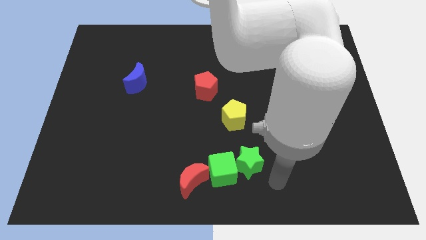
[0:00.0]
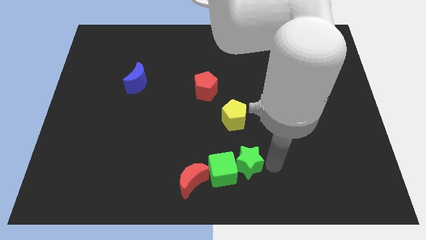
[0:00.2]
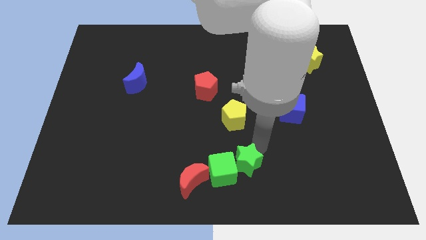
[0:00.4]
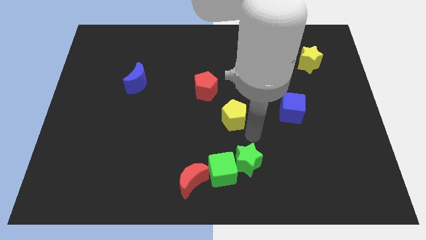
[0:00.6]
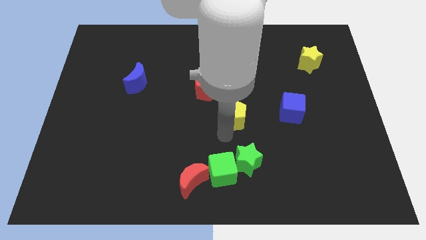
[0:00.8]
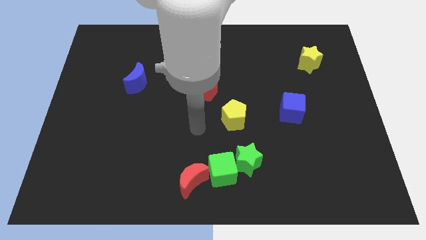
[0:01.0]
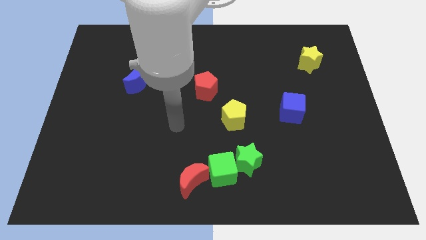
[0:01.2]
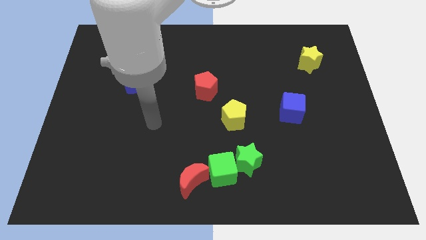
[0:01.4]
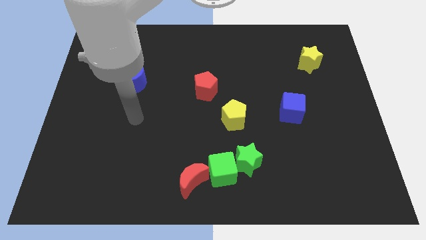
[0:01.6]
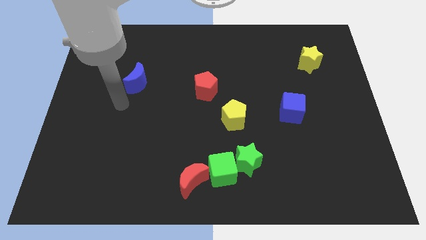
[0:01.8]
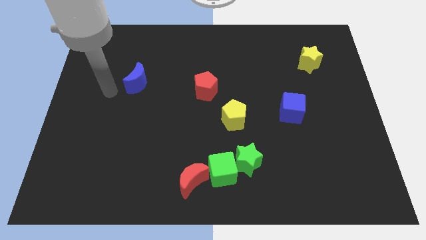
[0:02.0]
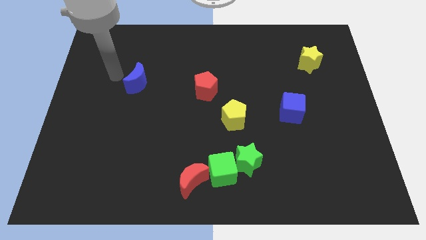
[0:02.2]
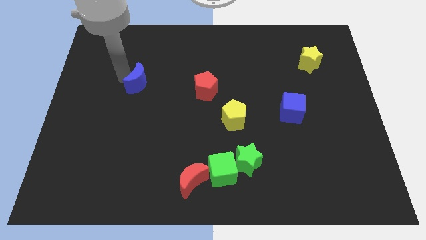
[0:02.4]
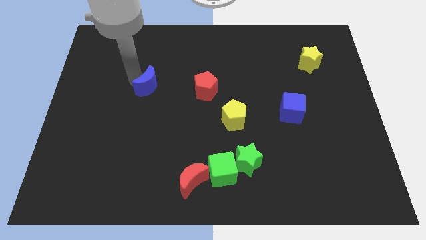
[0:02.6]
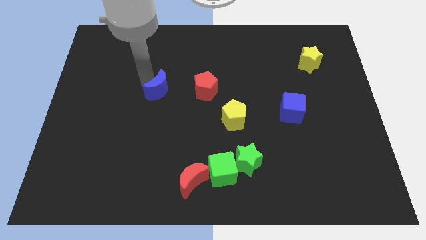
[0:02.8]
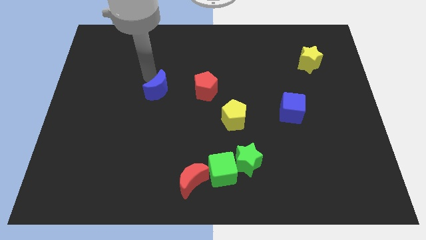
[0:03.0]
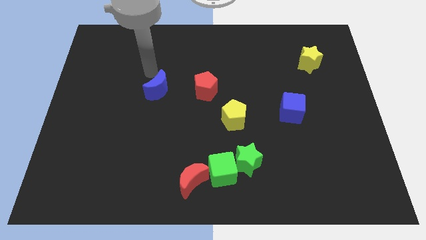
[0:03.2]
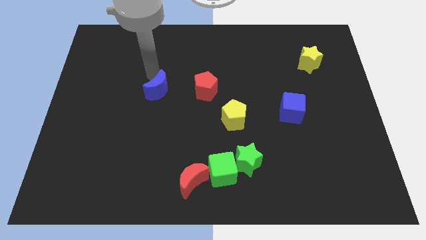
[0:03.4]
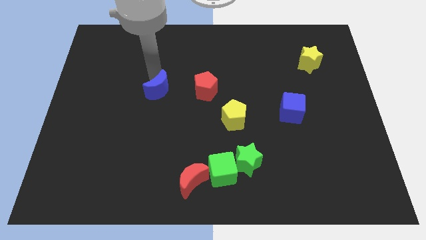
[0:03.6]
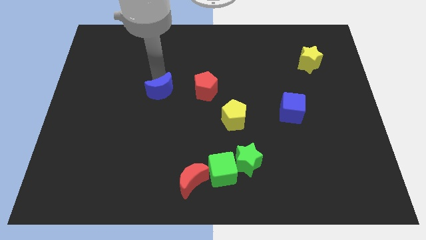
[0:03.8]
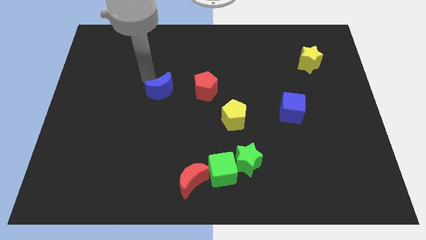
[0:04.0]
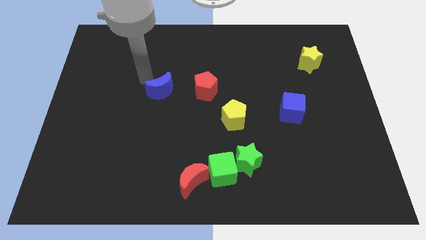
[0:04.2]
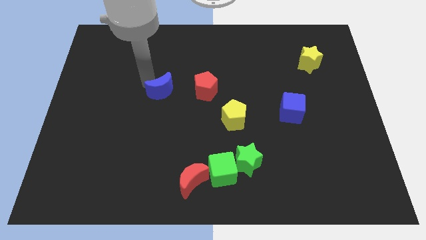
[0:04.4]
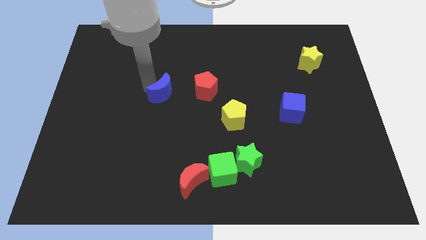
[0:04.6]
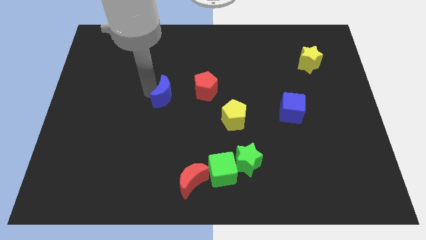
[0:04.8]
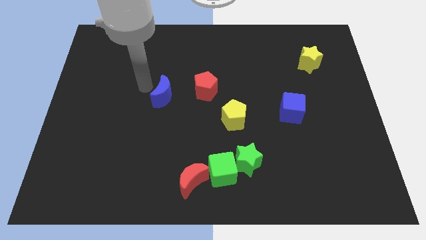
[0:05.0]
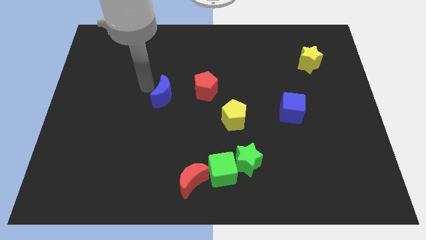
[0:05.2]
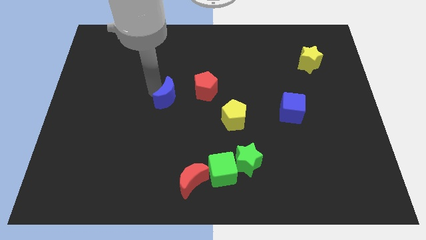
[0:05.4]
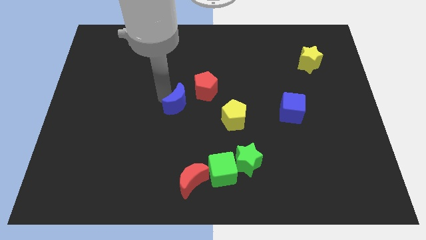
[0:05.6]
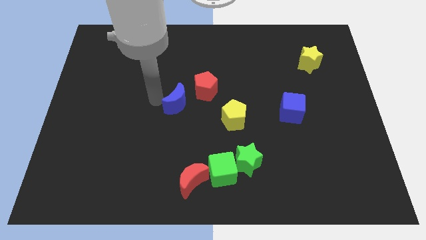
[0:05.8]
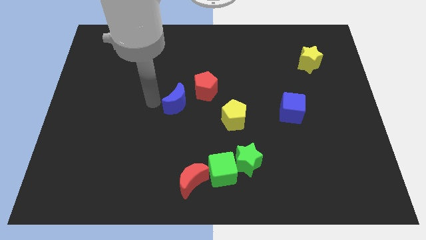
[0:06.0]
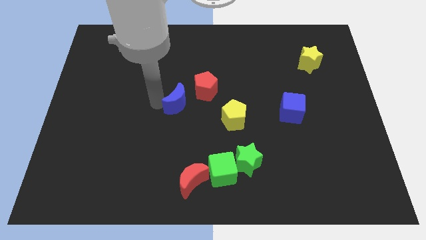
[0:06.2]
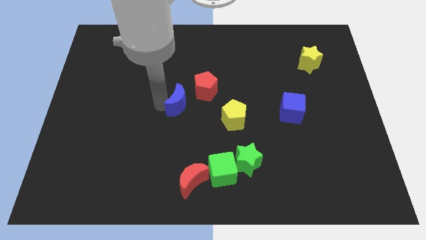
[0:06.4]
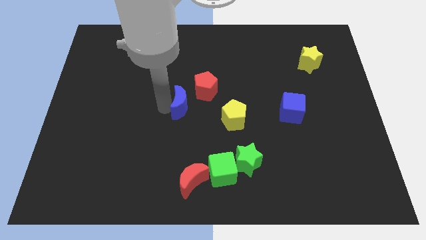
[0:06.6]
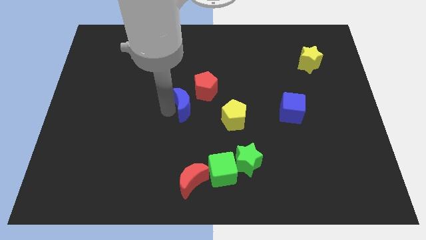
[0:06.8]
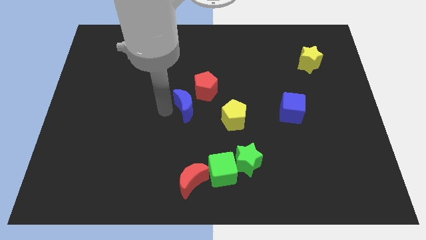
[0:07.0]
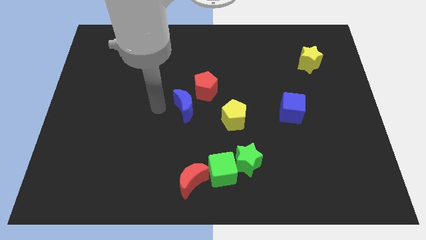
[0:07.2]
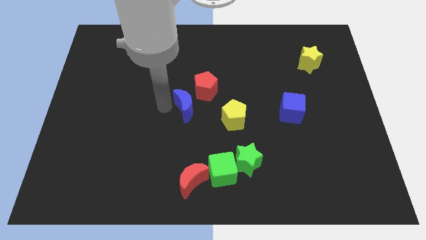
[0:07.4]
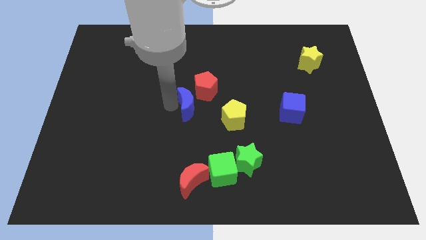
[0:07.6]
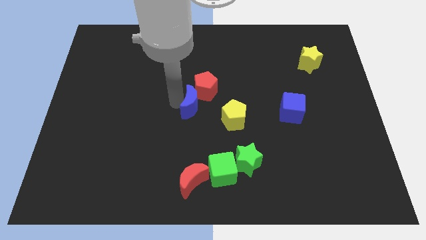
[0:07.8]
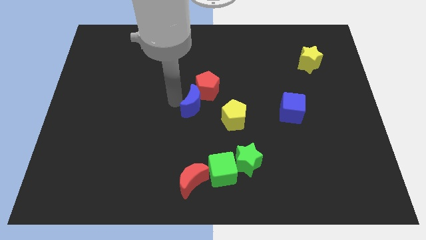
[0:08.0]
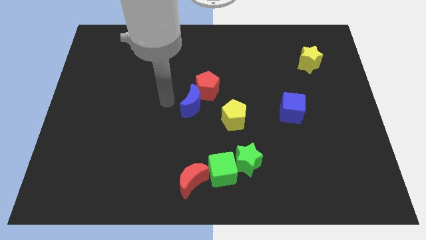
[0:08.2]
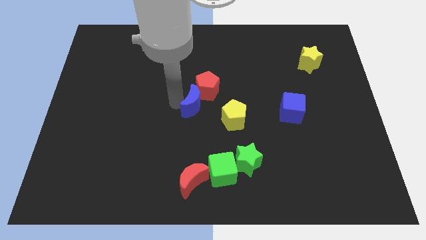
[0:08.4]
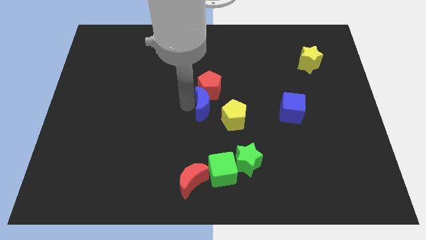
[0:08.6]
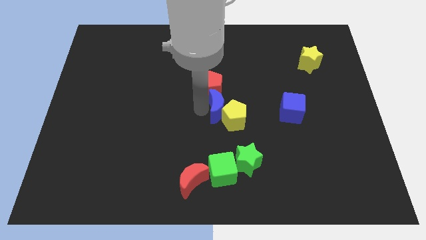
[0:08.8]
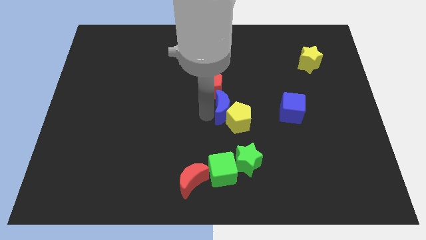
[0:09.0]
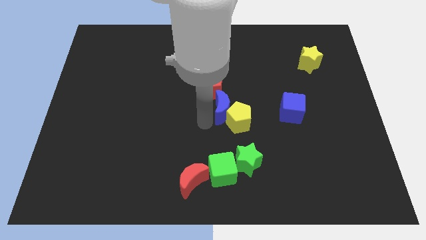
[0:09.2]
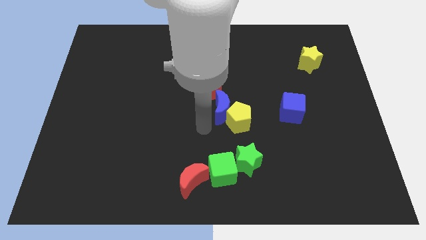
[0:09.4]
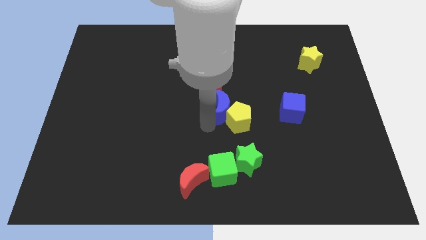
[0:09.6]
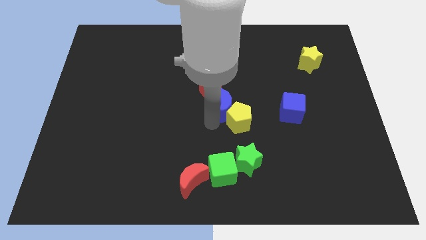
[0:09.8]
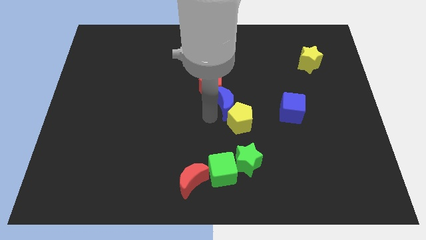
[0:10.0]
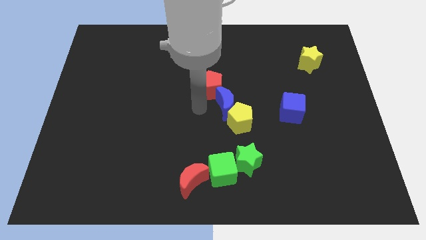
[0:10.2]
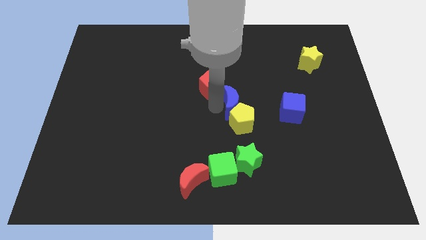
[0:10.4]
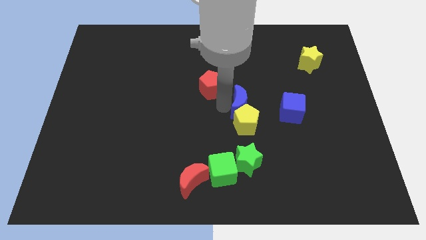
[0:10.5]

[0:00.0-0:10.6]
slide the blue moon diagonally up and to the right of the yellow pentagon

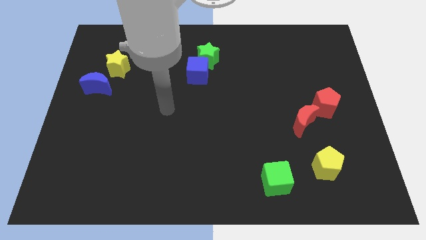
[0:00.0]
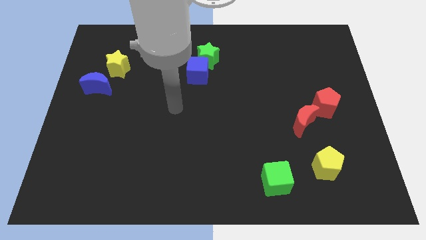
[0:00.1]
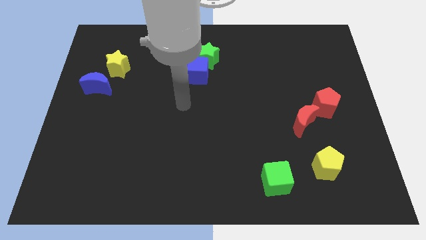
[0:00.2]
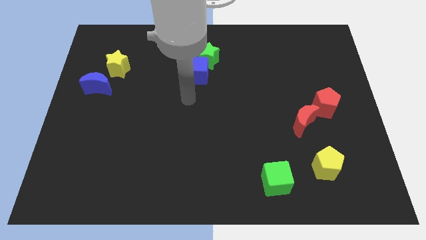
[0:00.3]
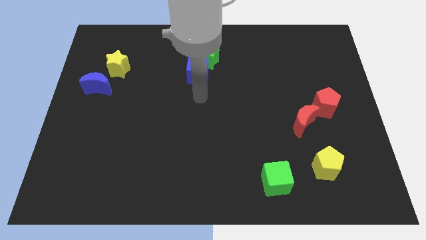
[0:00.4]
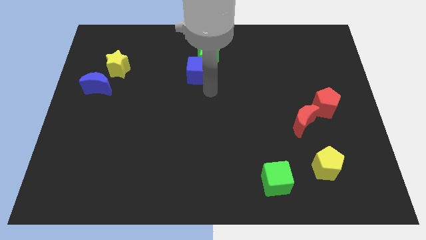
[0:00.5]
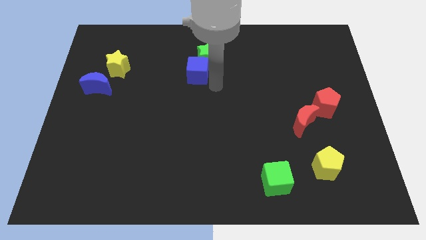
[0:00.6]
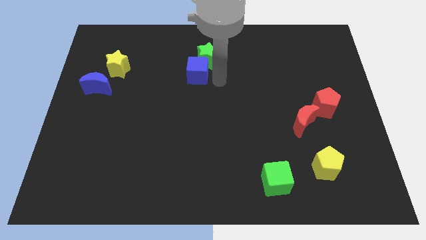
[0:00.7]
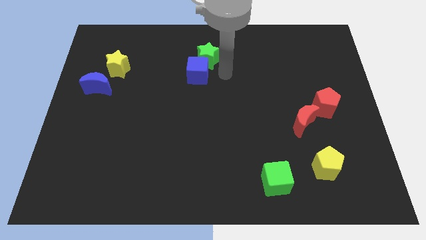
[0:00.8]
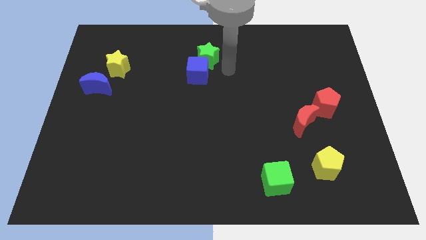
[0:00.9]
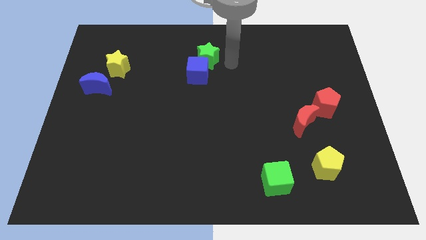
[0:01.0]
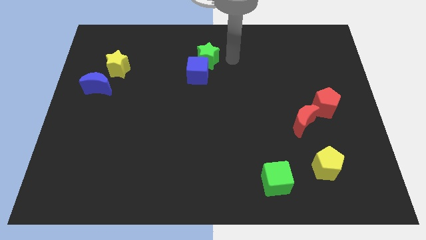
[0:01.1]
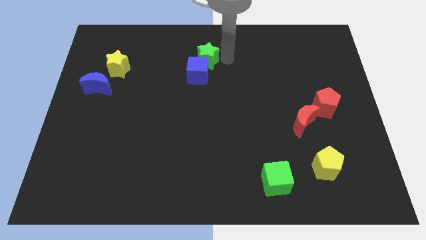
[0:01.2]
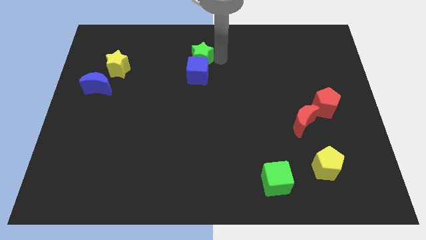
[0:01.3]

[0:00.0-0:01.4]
slide the green star diagonally up and to the left of the blue cube

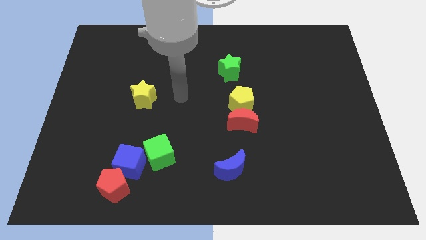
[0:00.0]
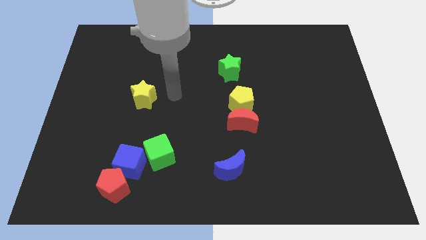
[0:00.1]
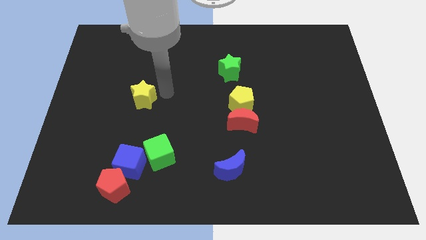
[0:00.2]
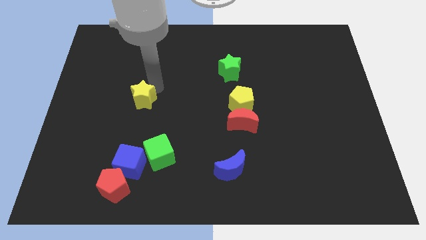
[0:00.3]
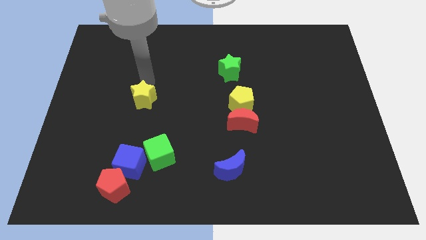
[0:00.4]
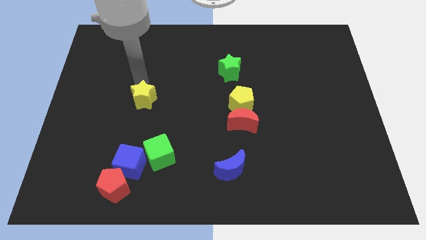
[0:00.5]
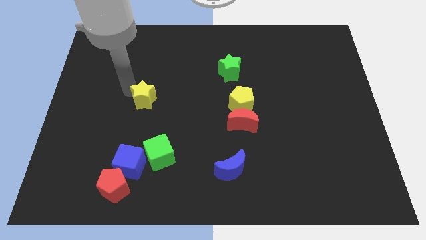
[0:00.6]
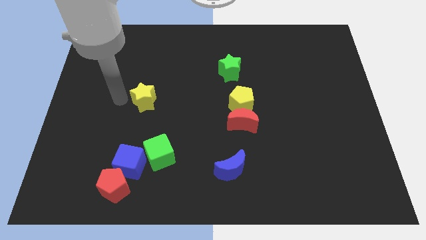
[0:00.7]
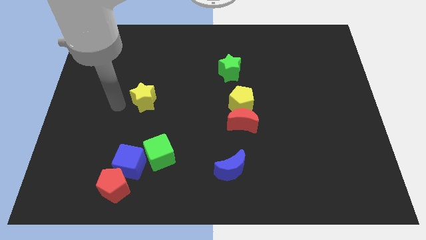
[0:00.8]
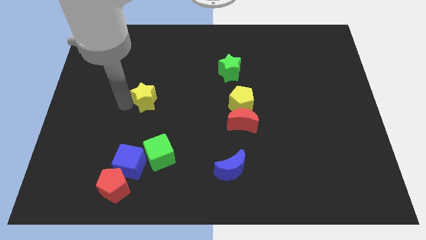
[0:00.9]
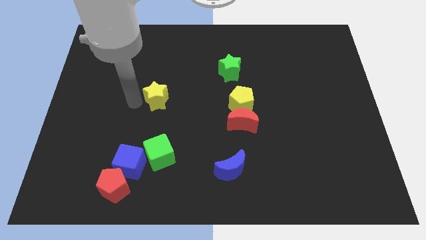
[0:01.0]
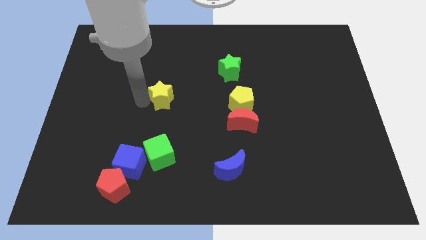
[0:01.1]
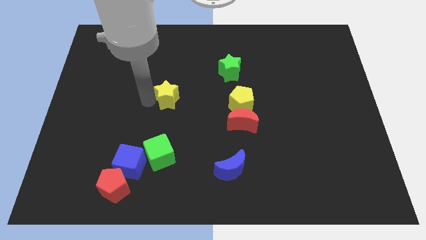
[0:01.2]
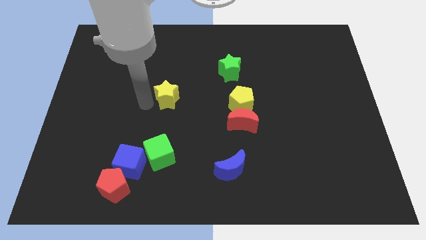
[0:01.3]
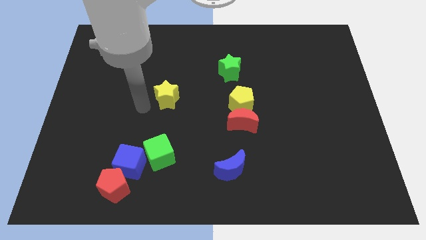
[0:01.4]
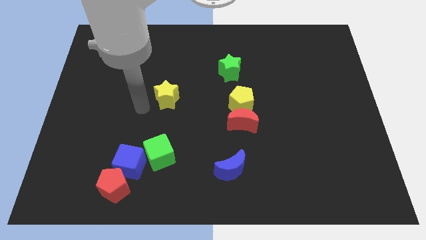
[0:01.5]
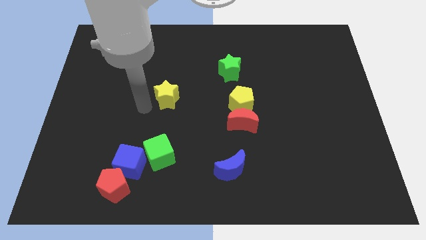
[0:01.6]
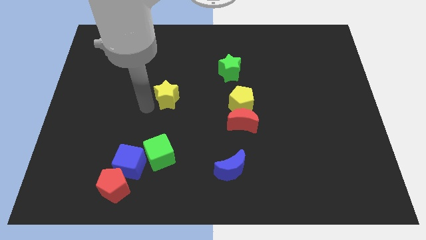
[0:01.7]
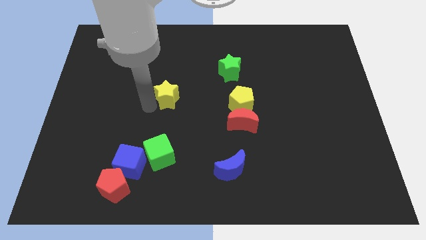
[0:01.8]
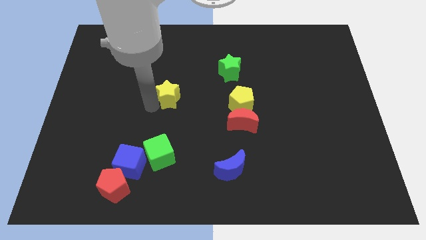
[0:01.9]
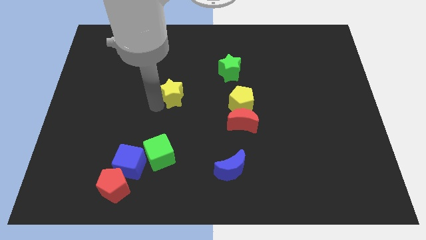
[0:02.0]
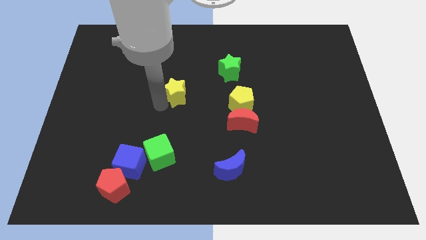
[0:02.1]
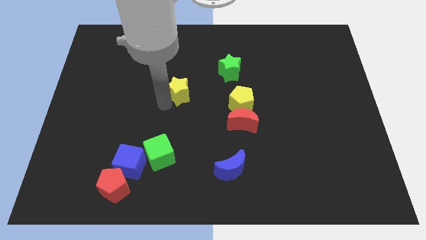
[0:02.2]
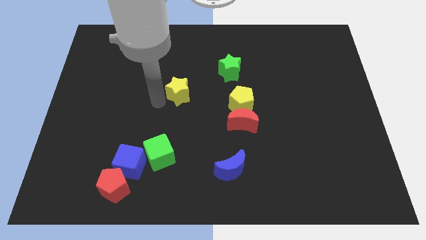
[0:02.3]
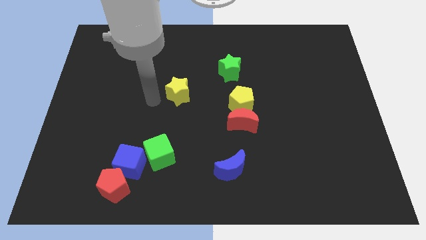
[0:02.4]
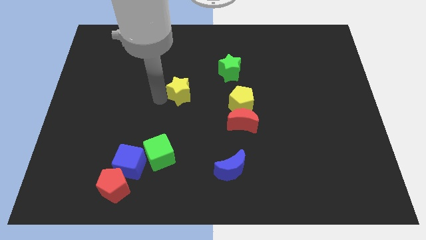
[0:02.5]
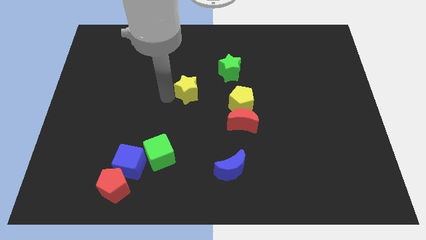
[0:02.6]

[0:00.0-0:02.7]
put the yellow star diagonally down and to the left of the green star
